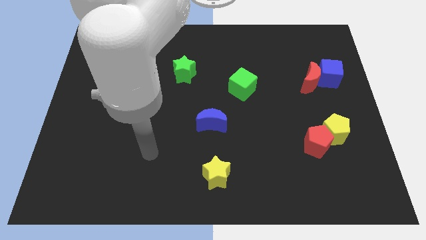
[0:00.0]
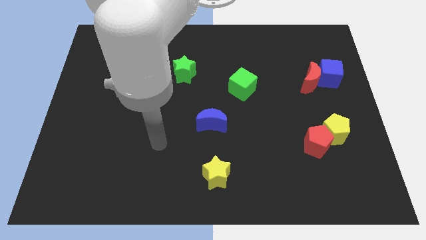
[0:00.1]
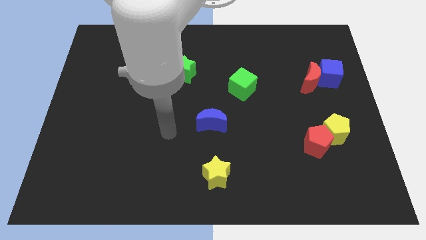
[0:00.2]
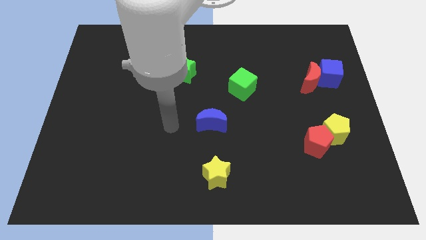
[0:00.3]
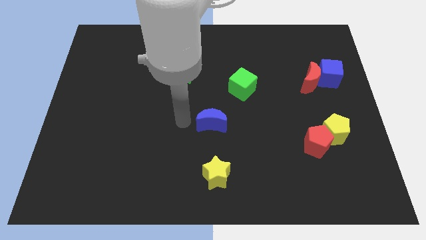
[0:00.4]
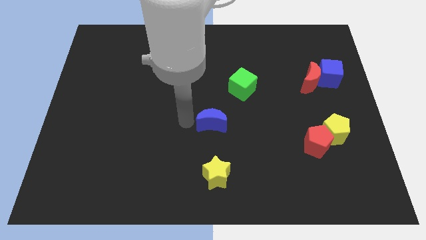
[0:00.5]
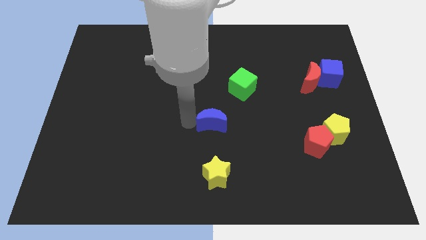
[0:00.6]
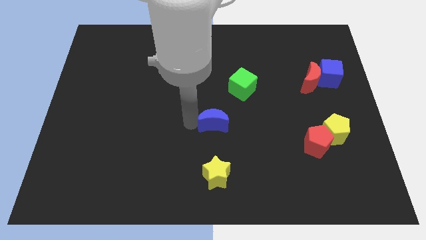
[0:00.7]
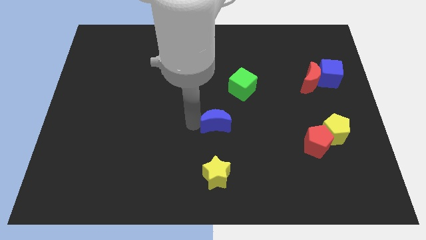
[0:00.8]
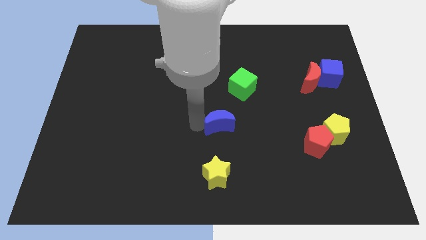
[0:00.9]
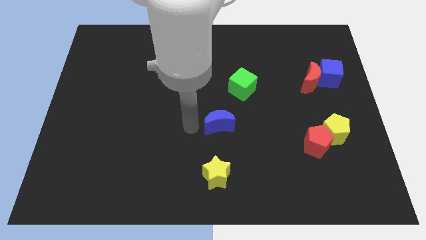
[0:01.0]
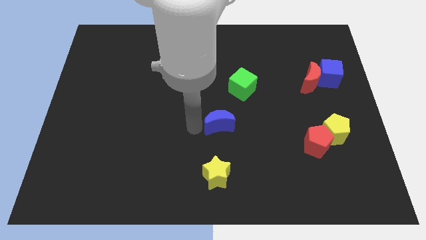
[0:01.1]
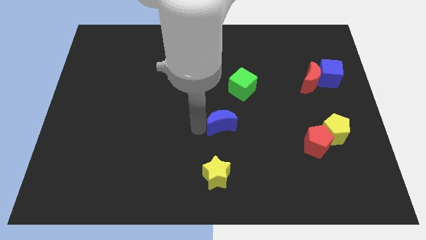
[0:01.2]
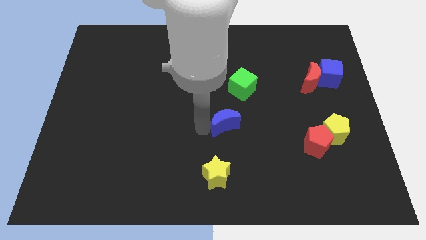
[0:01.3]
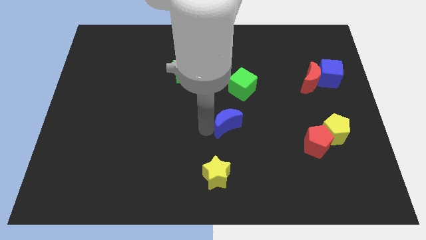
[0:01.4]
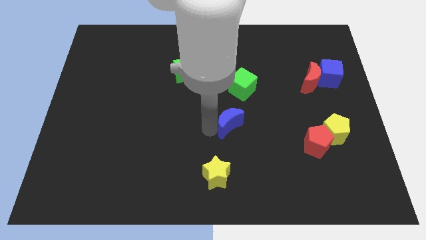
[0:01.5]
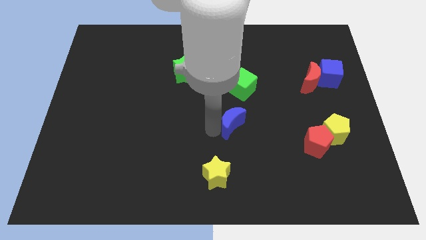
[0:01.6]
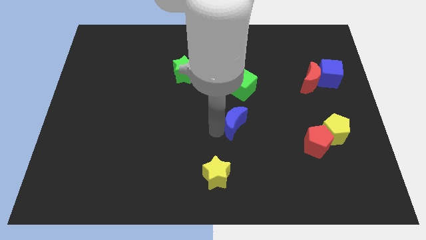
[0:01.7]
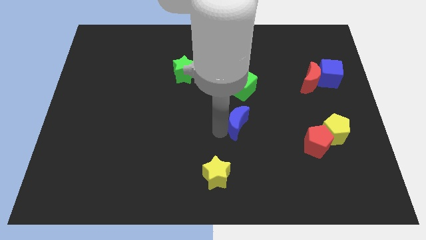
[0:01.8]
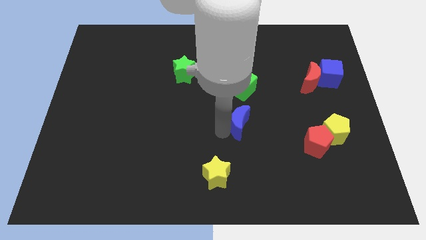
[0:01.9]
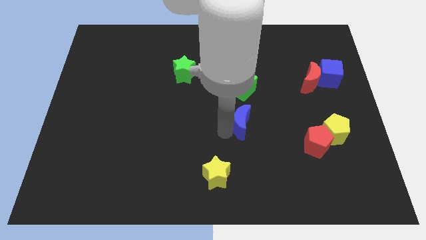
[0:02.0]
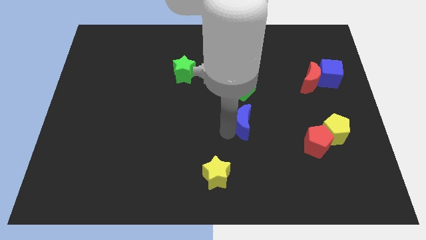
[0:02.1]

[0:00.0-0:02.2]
move the blue moon somewhat to the right

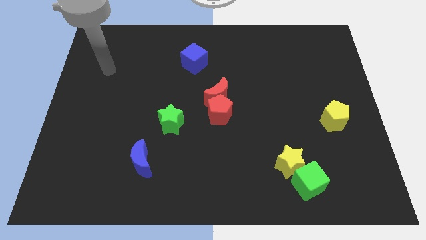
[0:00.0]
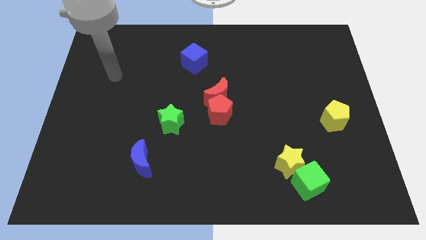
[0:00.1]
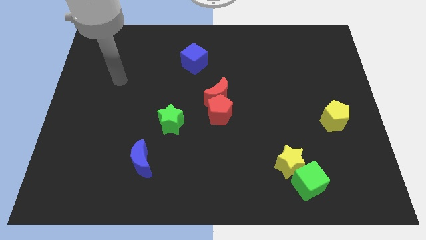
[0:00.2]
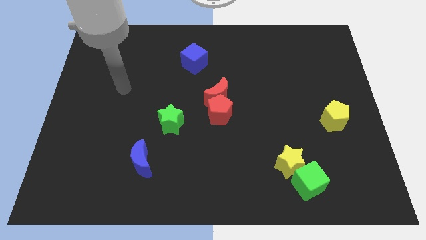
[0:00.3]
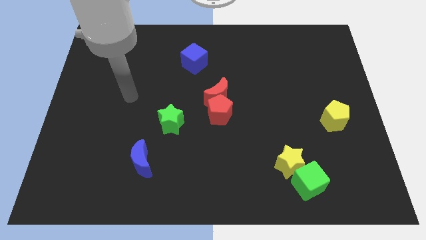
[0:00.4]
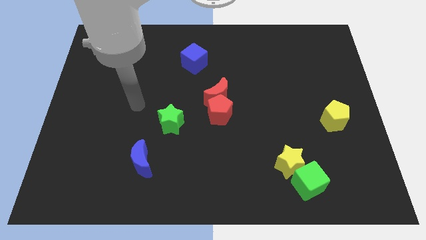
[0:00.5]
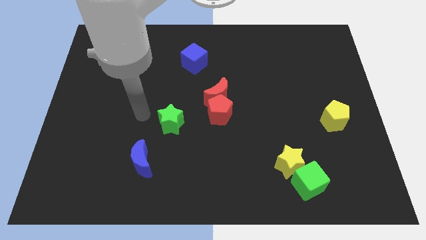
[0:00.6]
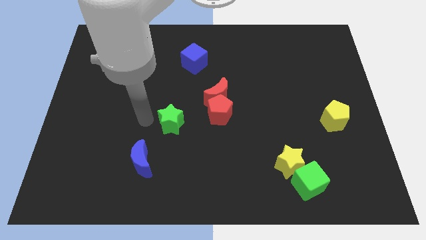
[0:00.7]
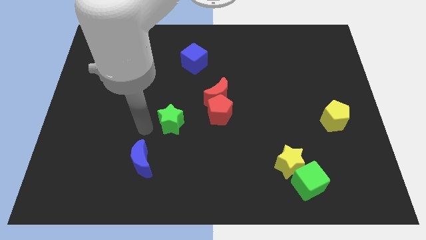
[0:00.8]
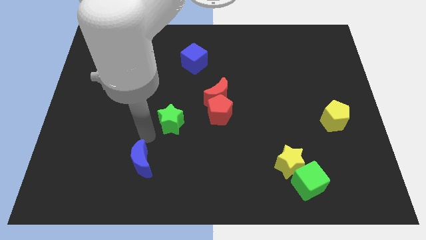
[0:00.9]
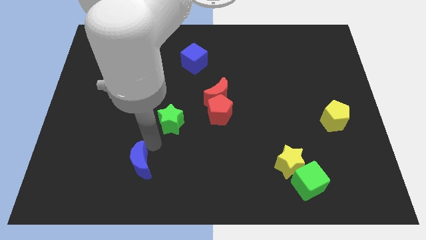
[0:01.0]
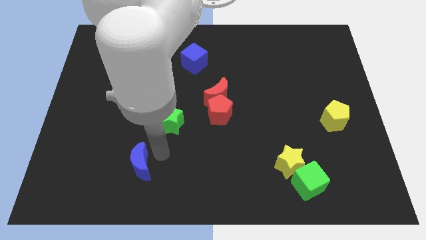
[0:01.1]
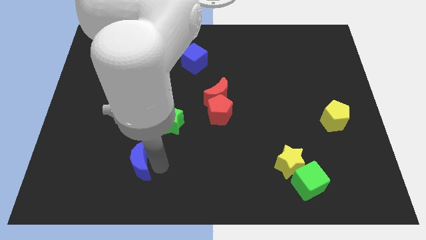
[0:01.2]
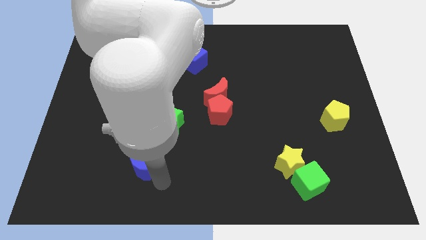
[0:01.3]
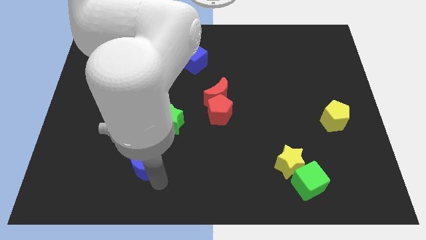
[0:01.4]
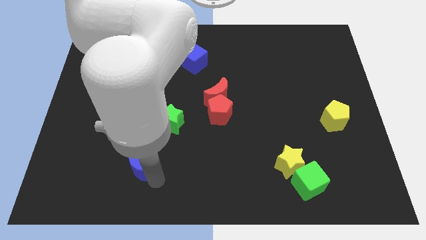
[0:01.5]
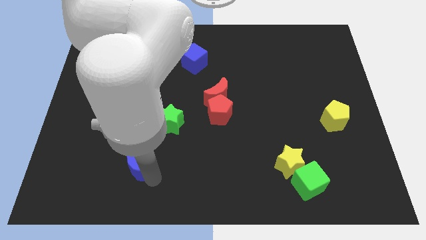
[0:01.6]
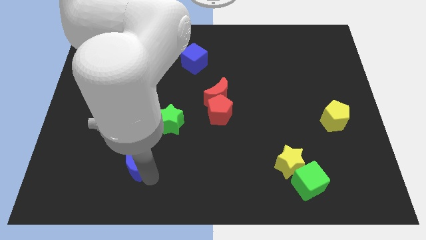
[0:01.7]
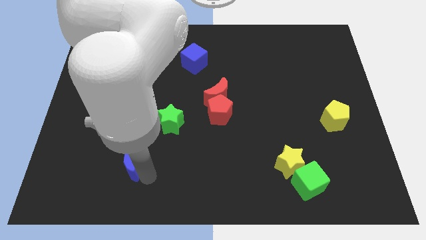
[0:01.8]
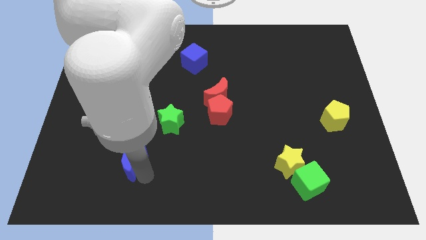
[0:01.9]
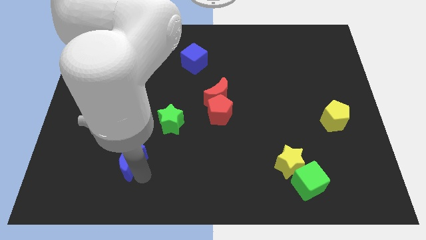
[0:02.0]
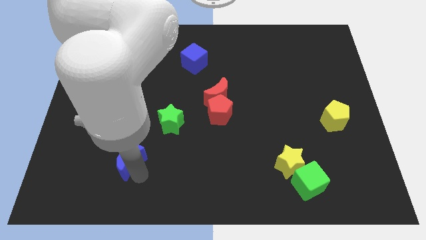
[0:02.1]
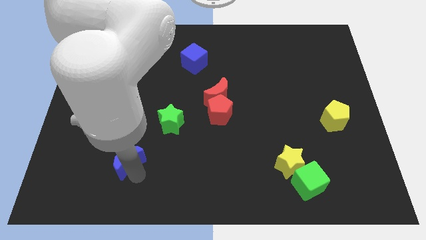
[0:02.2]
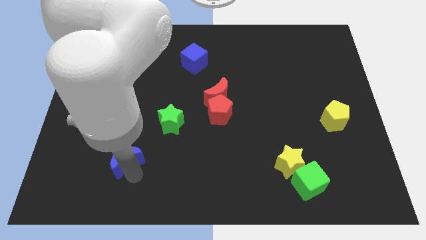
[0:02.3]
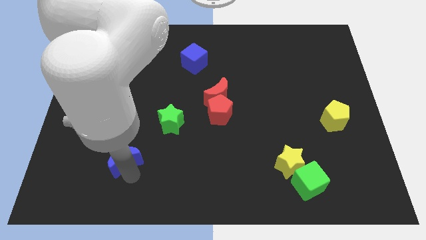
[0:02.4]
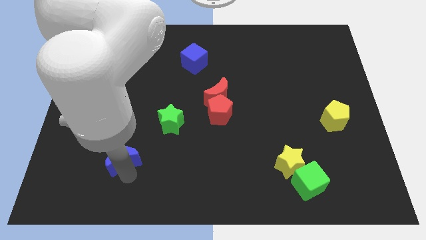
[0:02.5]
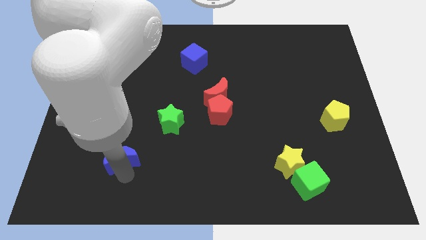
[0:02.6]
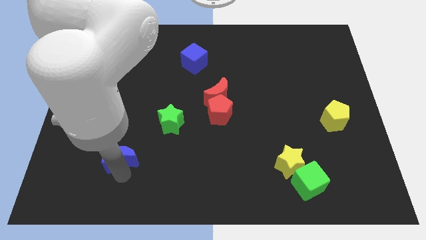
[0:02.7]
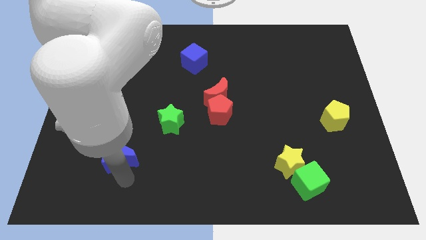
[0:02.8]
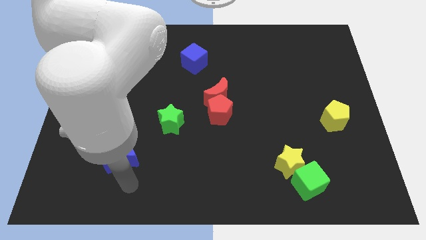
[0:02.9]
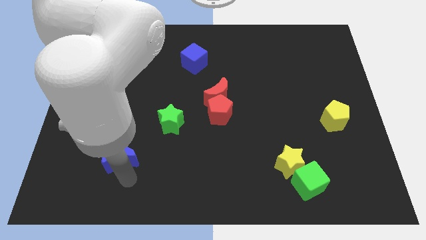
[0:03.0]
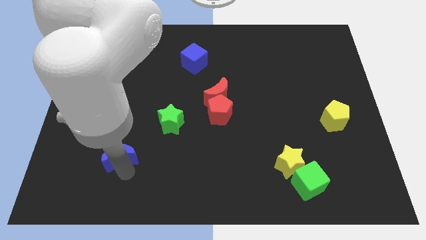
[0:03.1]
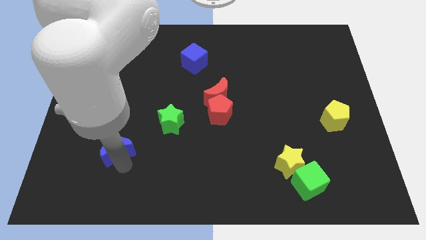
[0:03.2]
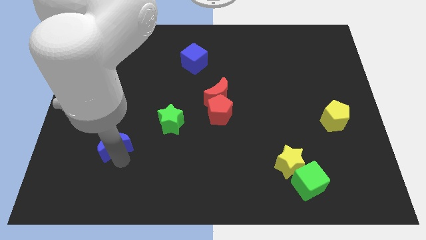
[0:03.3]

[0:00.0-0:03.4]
slide the blue moon a bit up and left

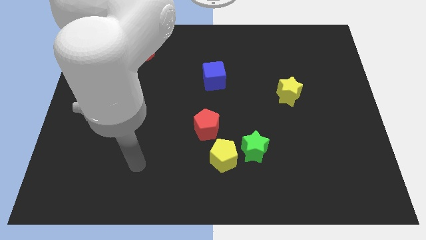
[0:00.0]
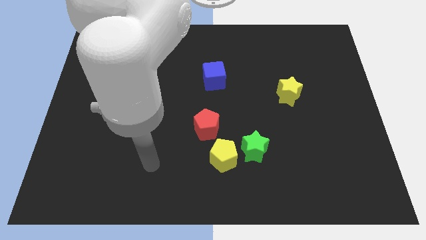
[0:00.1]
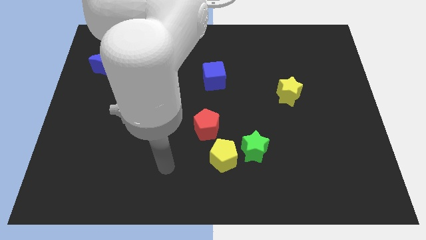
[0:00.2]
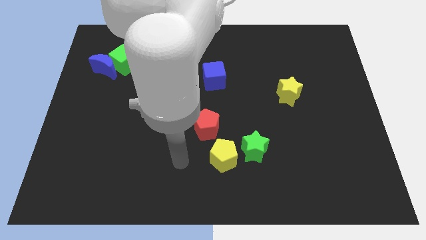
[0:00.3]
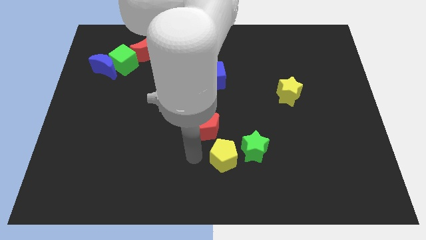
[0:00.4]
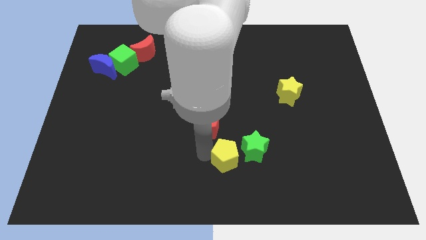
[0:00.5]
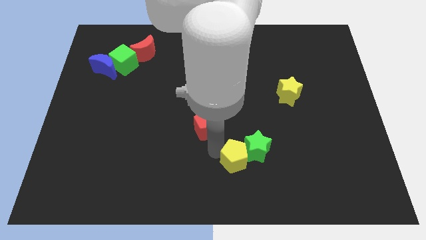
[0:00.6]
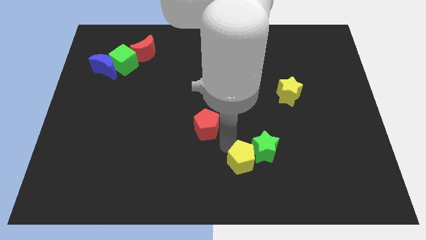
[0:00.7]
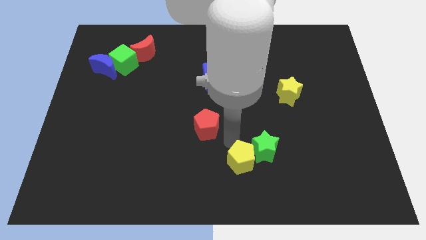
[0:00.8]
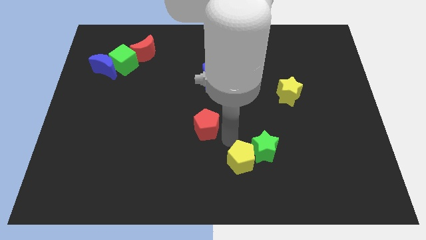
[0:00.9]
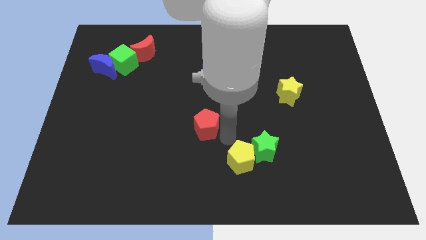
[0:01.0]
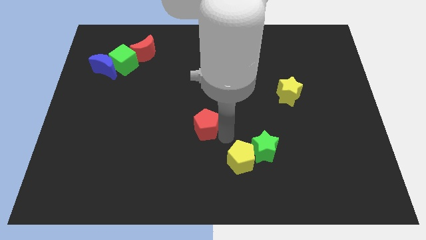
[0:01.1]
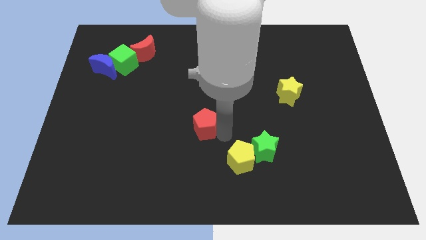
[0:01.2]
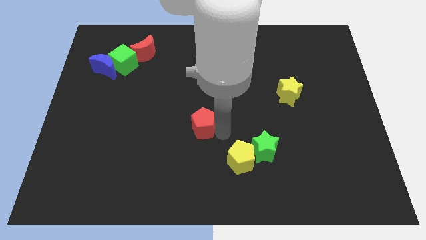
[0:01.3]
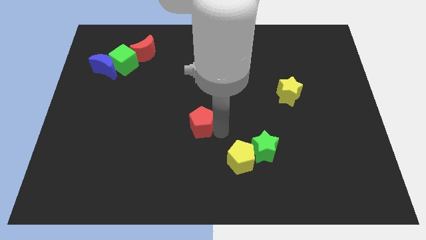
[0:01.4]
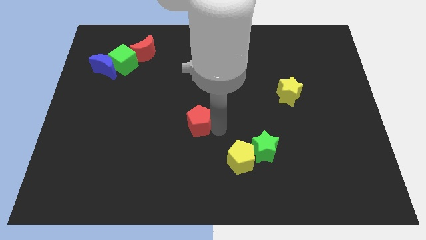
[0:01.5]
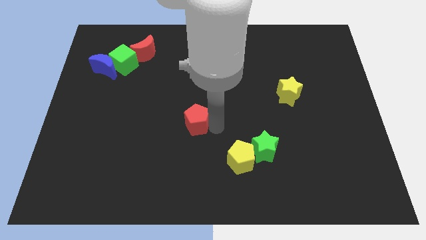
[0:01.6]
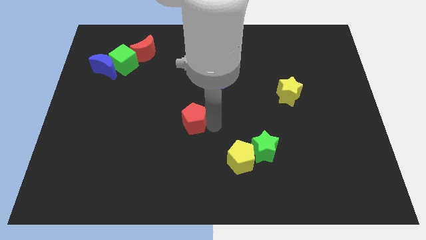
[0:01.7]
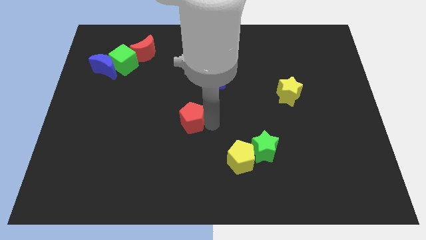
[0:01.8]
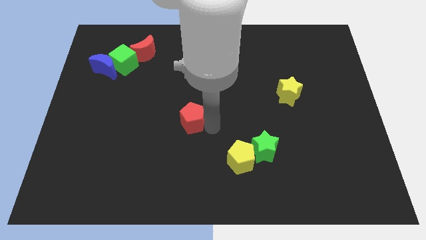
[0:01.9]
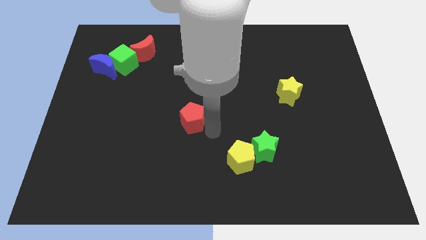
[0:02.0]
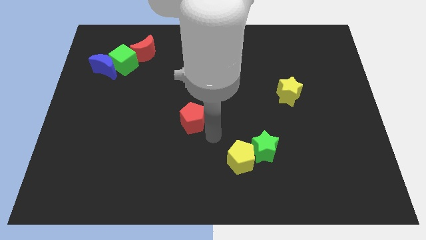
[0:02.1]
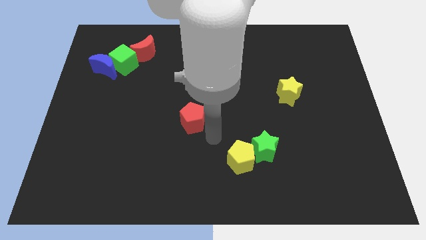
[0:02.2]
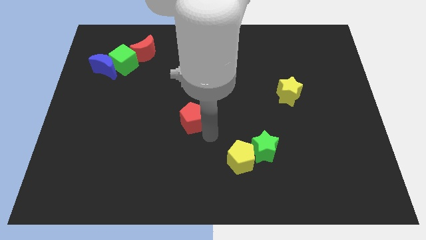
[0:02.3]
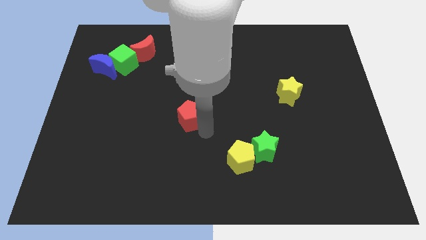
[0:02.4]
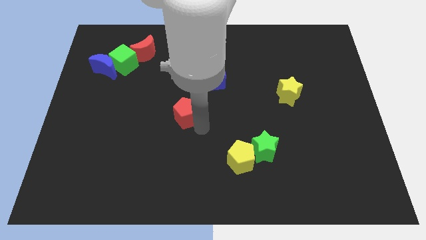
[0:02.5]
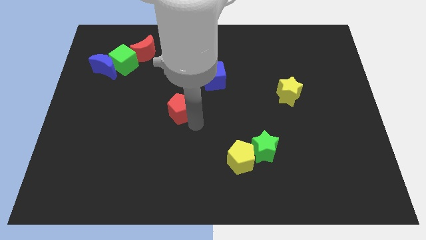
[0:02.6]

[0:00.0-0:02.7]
move the red pentagon up and then left a little bit
